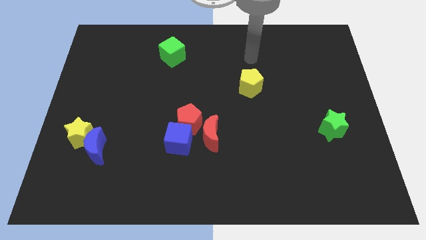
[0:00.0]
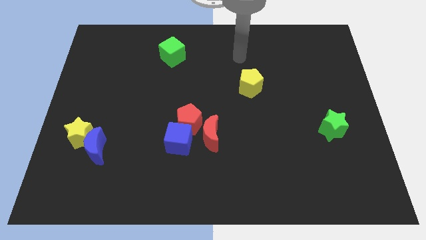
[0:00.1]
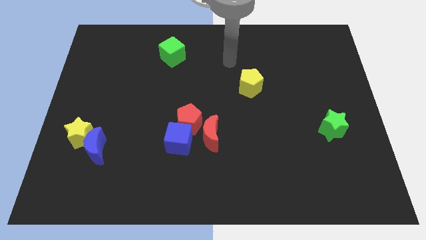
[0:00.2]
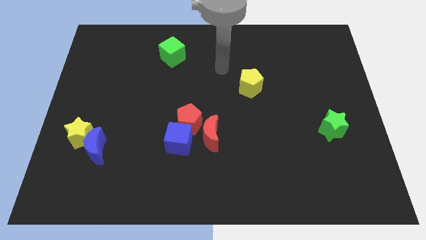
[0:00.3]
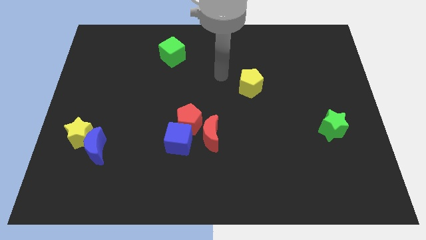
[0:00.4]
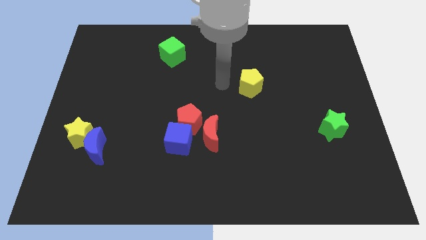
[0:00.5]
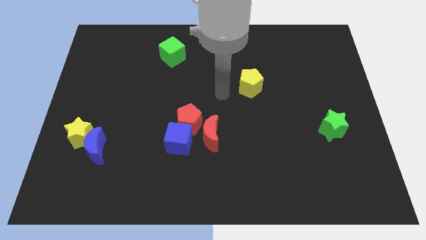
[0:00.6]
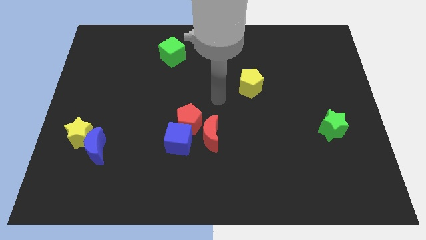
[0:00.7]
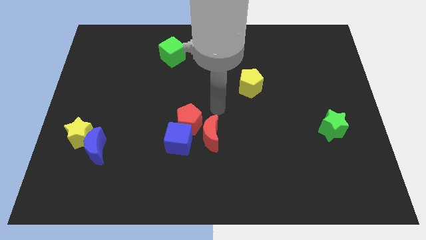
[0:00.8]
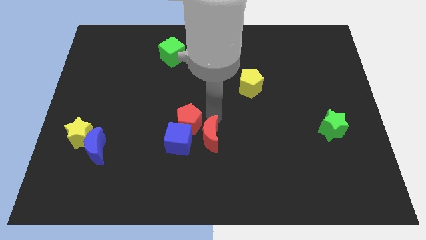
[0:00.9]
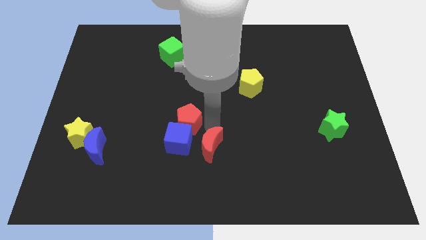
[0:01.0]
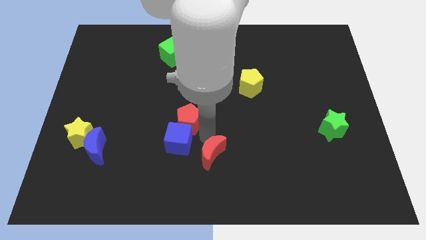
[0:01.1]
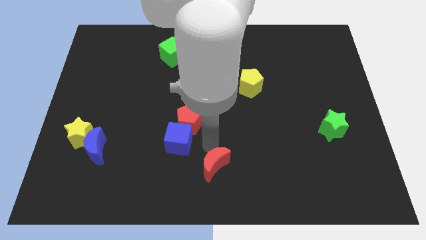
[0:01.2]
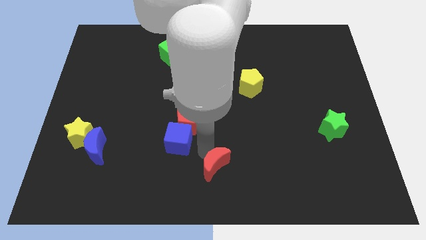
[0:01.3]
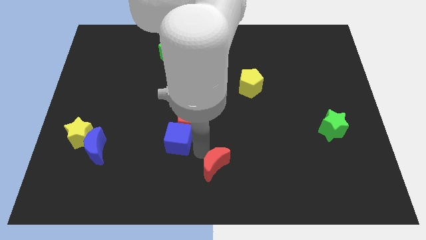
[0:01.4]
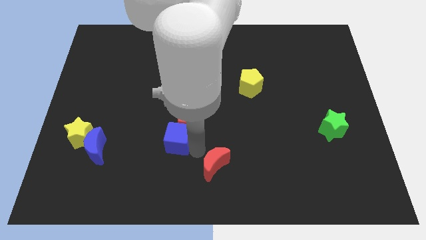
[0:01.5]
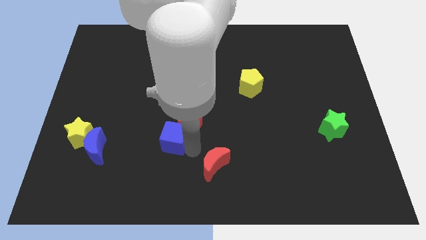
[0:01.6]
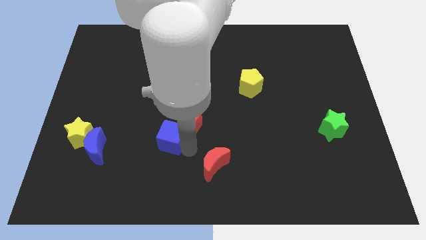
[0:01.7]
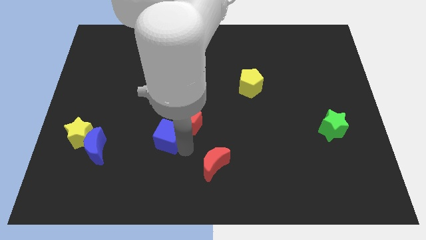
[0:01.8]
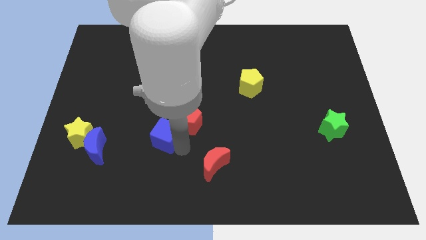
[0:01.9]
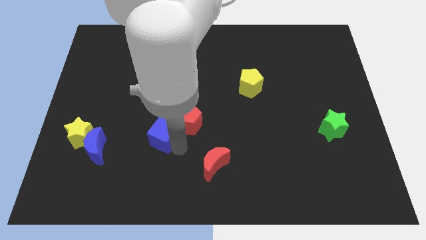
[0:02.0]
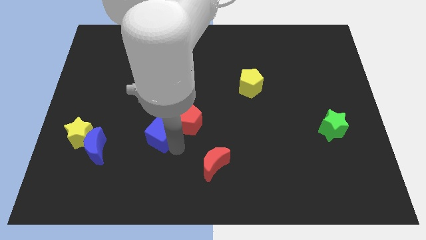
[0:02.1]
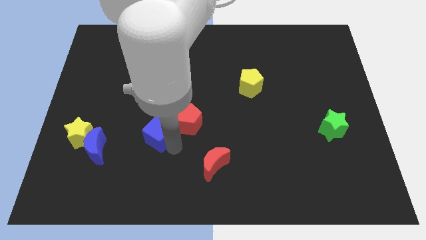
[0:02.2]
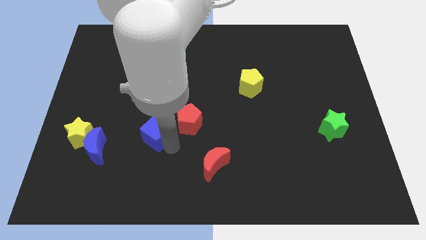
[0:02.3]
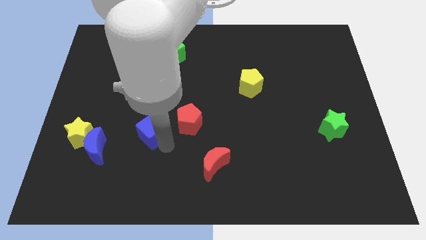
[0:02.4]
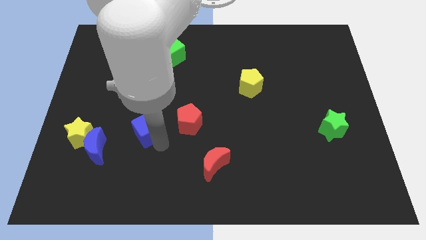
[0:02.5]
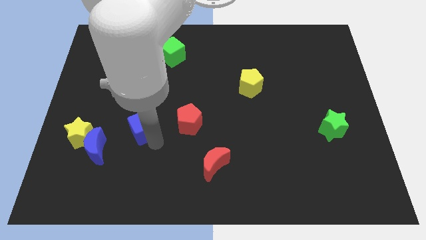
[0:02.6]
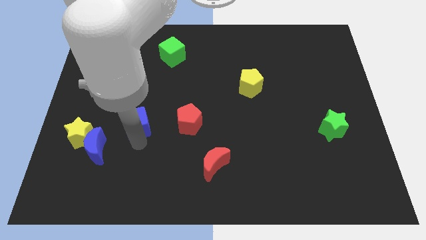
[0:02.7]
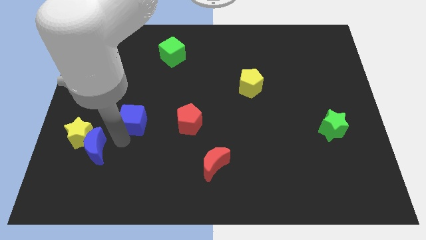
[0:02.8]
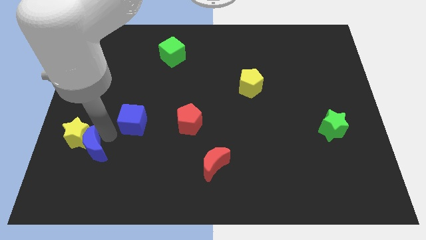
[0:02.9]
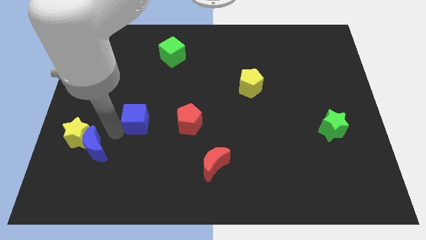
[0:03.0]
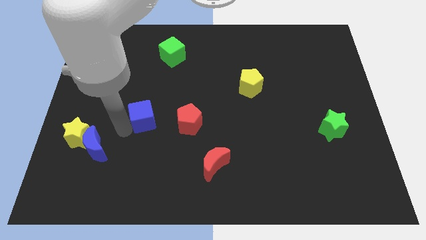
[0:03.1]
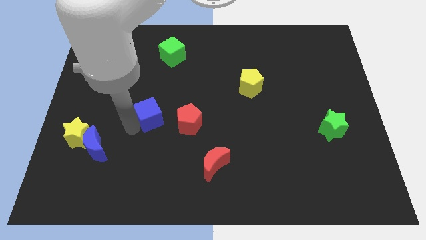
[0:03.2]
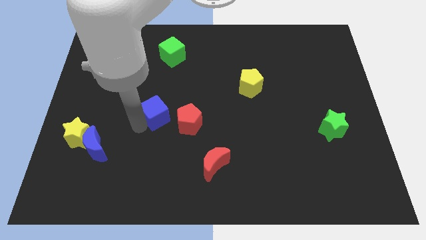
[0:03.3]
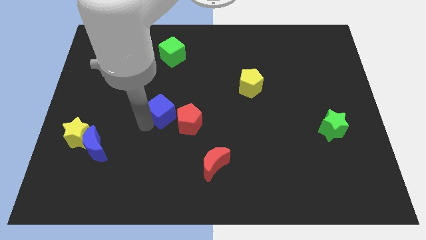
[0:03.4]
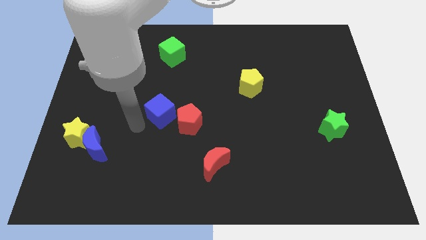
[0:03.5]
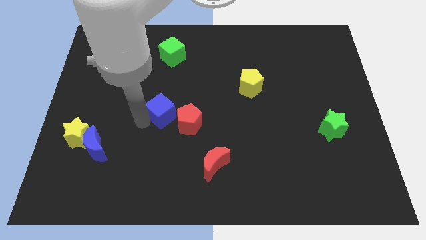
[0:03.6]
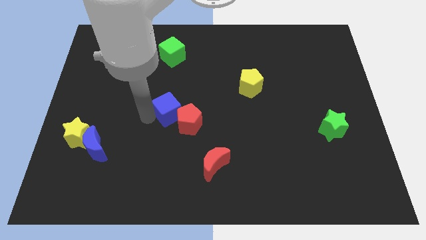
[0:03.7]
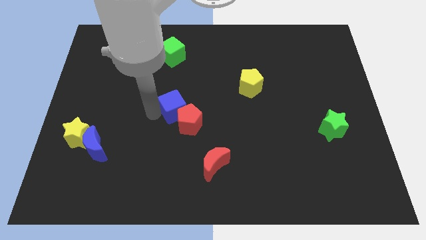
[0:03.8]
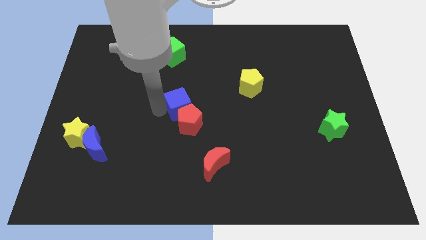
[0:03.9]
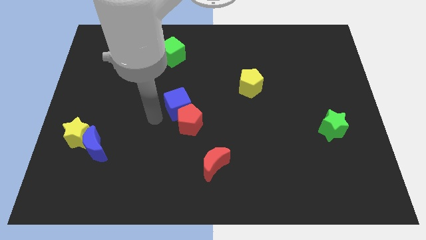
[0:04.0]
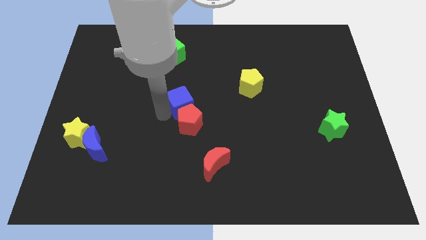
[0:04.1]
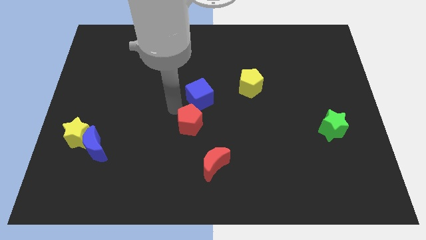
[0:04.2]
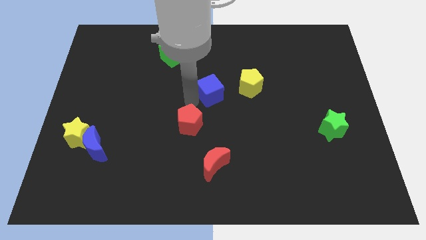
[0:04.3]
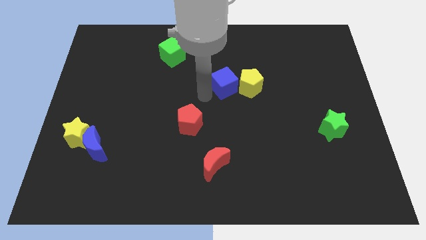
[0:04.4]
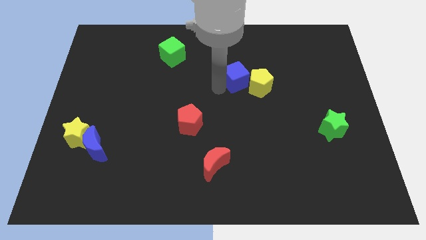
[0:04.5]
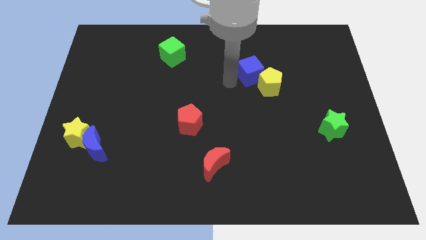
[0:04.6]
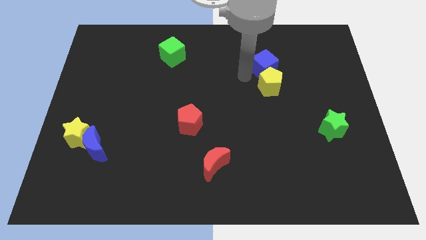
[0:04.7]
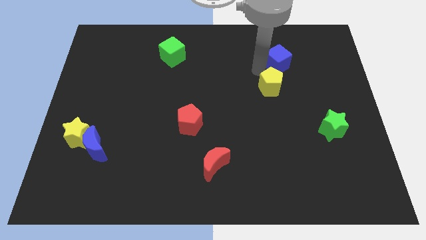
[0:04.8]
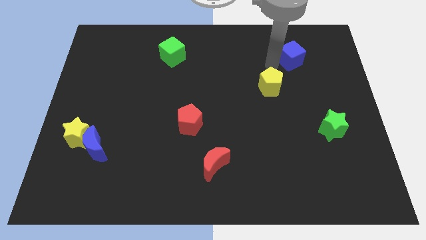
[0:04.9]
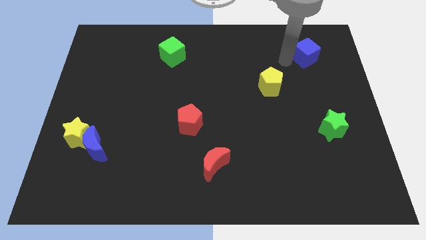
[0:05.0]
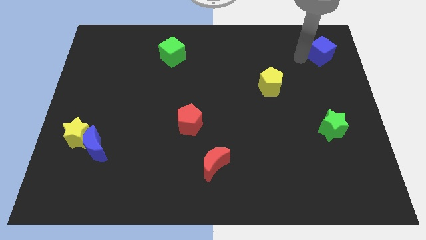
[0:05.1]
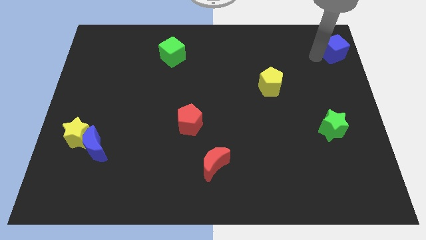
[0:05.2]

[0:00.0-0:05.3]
slide the blue cube to the top right of the board

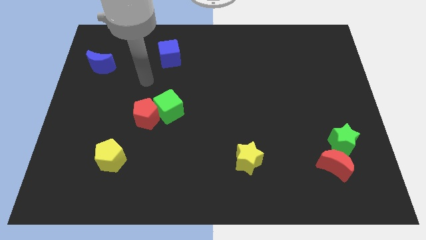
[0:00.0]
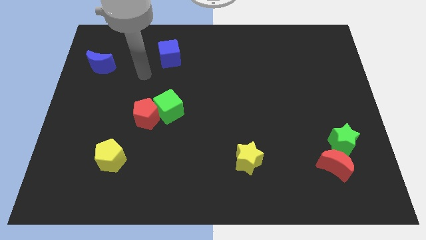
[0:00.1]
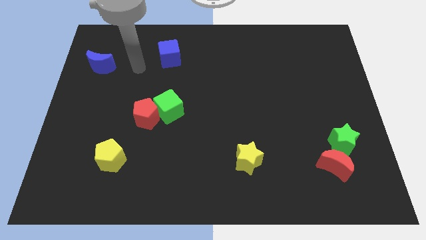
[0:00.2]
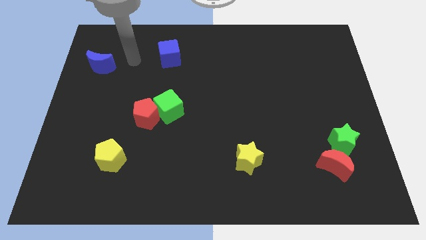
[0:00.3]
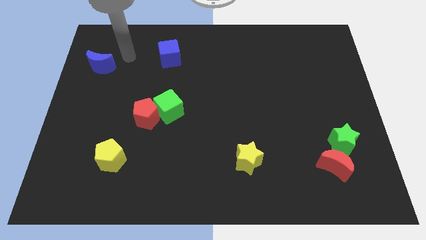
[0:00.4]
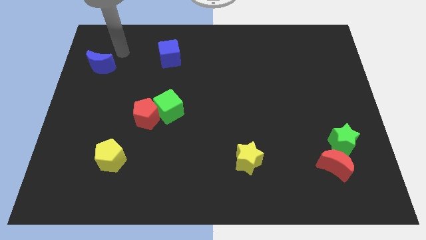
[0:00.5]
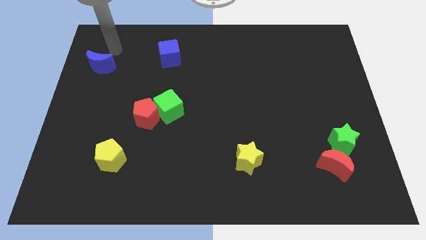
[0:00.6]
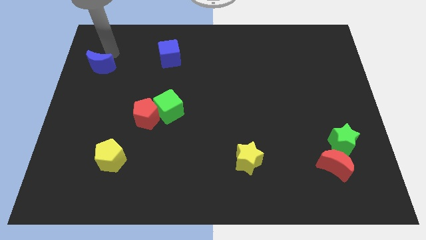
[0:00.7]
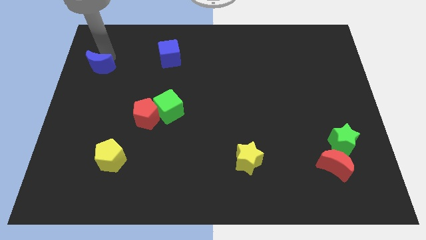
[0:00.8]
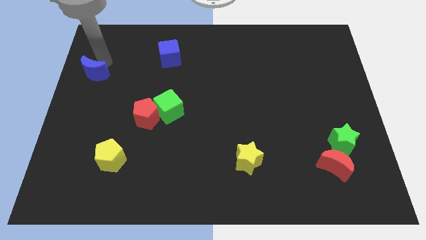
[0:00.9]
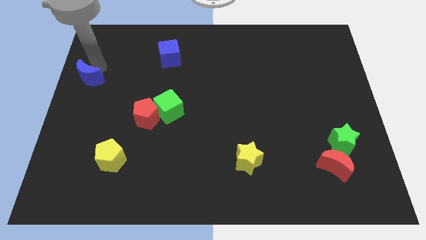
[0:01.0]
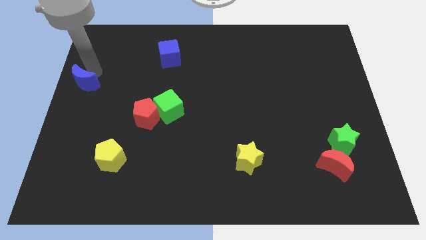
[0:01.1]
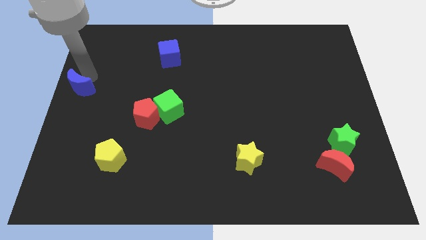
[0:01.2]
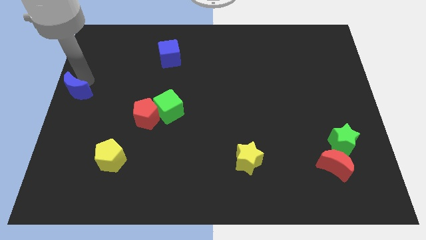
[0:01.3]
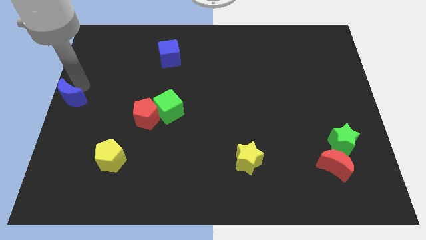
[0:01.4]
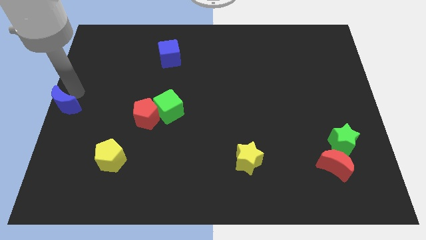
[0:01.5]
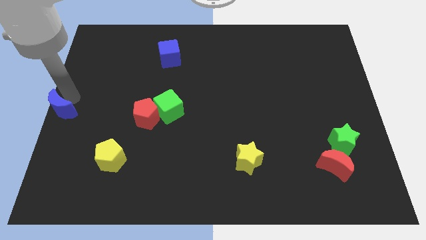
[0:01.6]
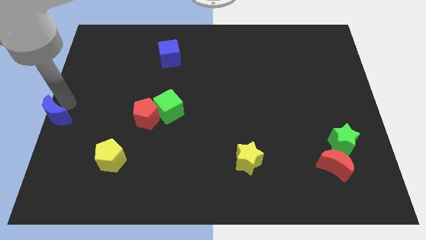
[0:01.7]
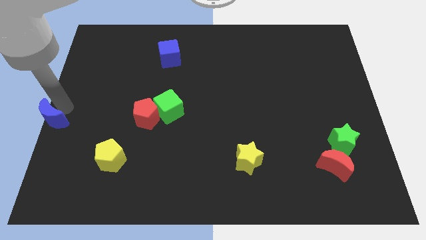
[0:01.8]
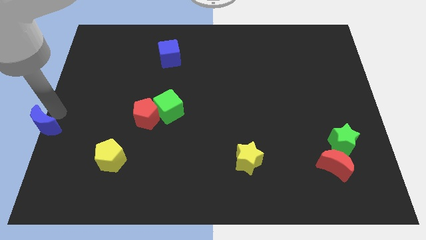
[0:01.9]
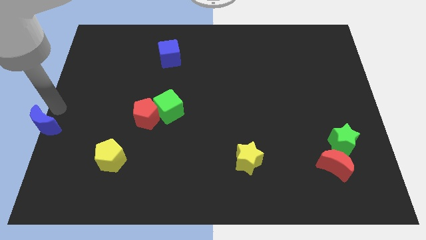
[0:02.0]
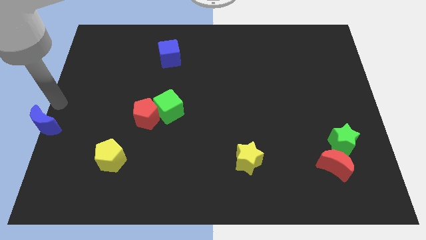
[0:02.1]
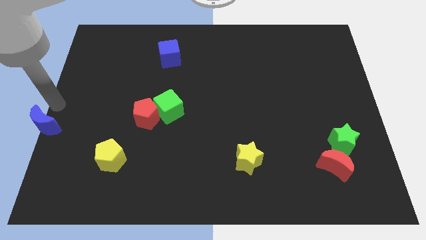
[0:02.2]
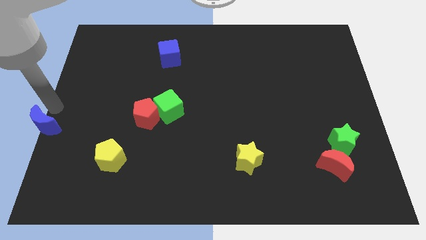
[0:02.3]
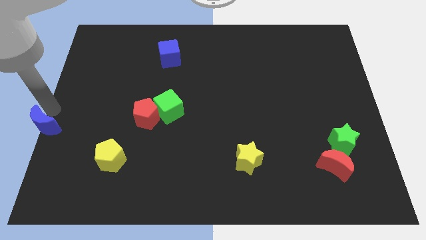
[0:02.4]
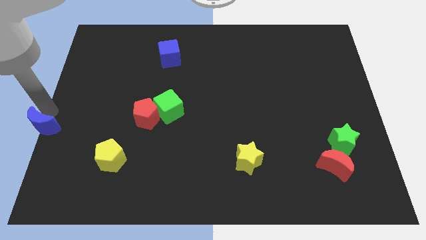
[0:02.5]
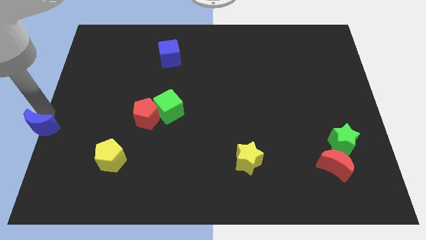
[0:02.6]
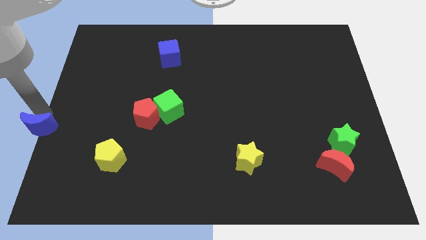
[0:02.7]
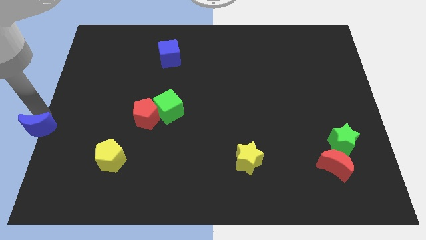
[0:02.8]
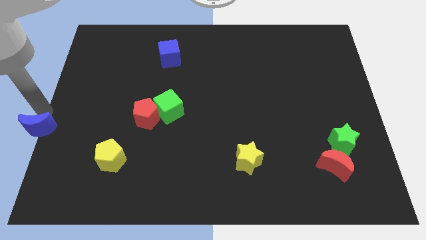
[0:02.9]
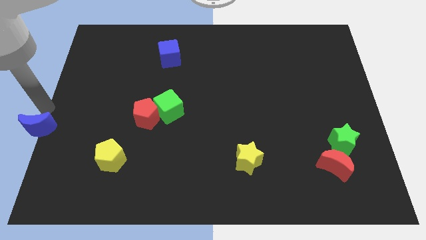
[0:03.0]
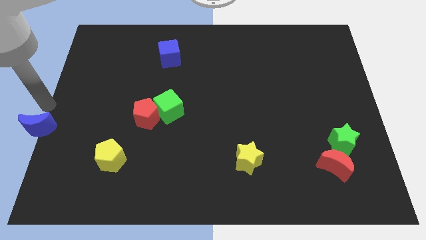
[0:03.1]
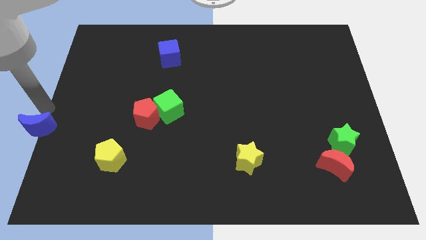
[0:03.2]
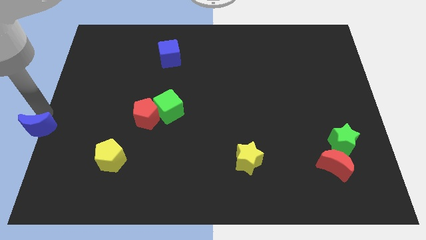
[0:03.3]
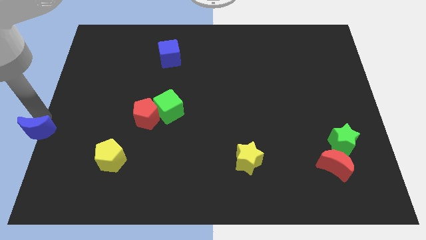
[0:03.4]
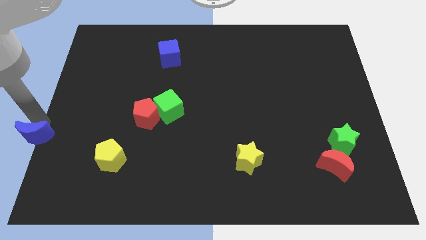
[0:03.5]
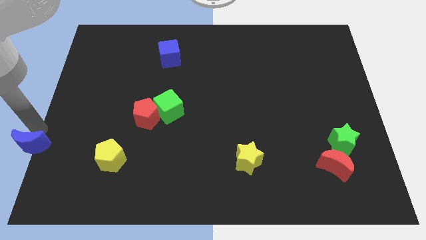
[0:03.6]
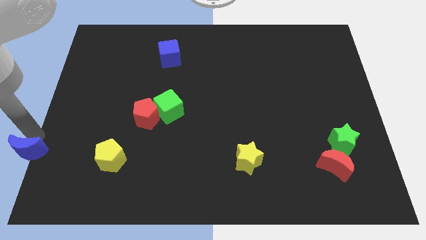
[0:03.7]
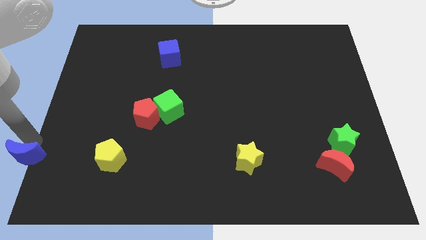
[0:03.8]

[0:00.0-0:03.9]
move the blue moon to the bottom left of the board
